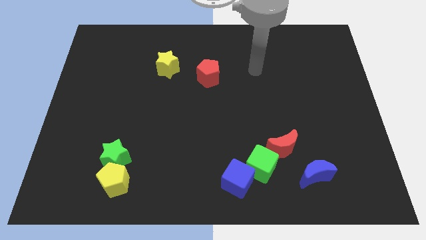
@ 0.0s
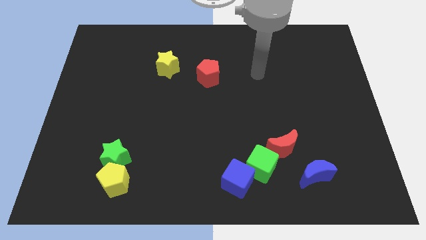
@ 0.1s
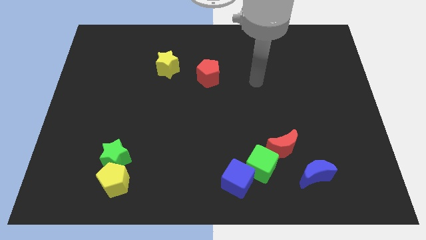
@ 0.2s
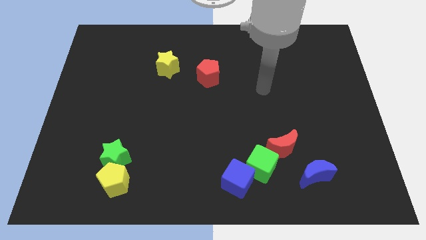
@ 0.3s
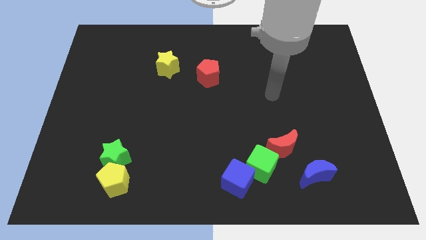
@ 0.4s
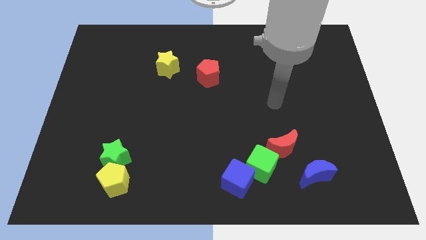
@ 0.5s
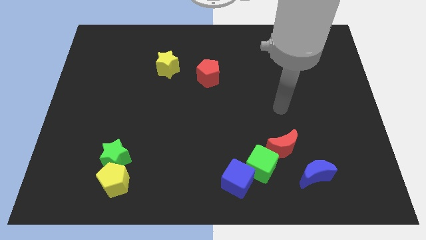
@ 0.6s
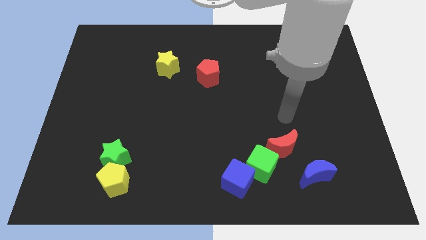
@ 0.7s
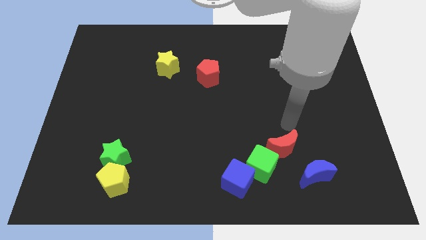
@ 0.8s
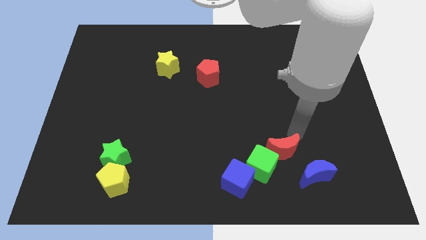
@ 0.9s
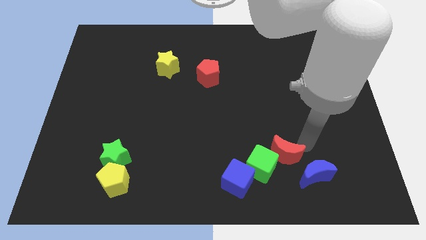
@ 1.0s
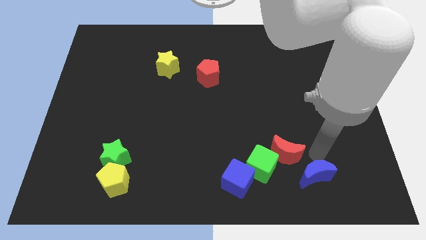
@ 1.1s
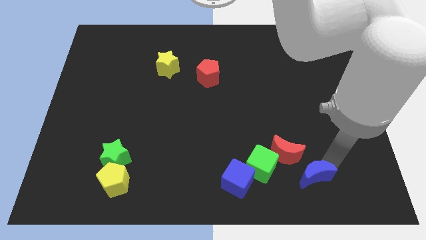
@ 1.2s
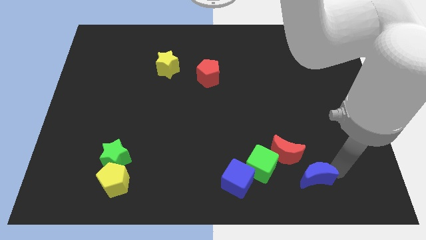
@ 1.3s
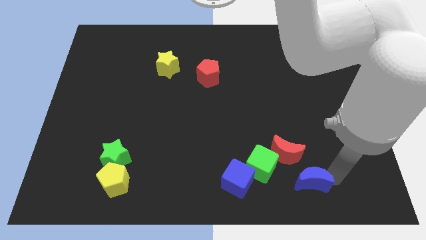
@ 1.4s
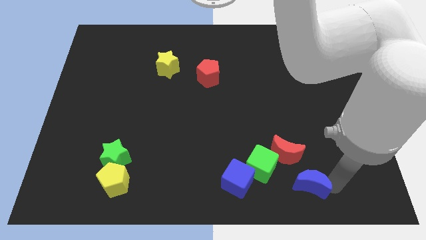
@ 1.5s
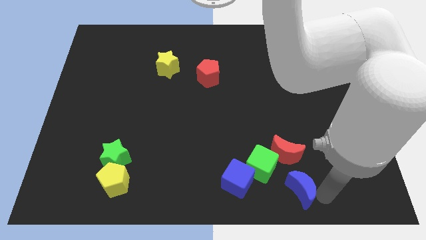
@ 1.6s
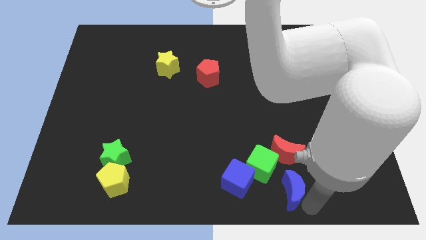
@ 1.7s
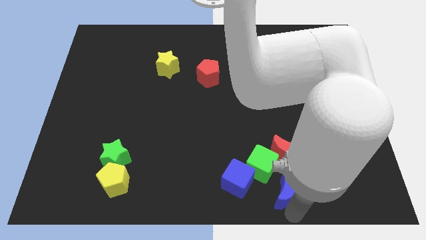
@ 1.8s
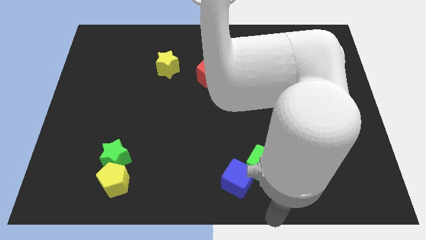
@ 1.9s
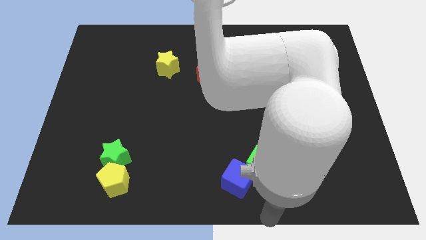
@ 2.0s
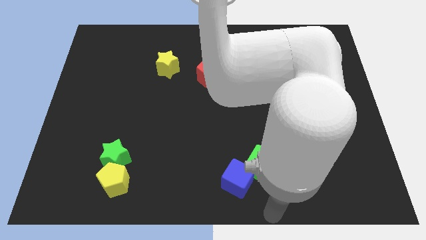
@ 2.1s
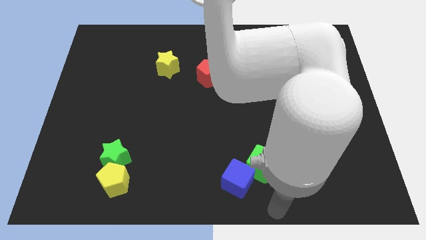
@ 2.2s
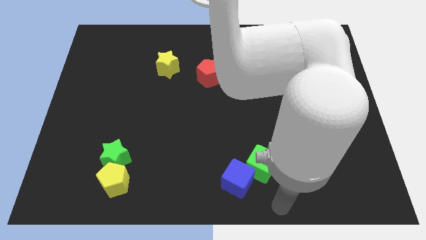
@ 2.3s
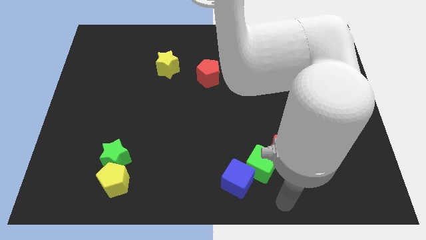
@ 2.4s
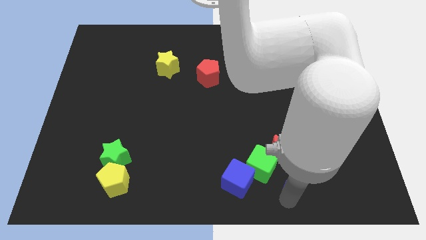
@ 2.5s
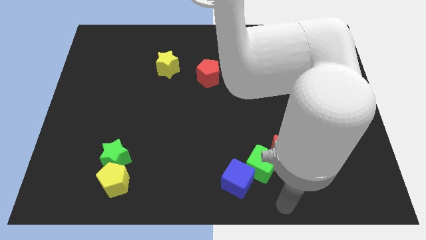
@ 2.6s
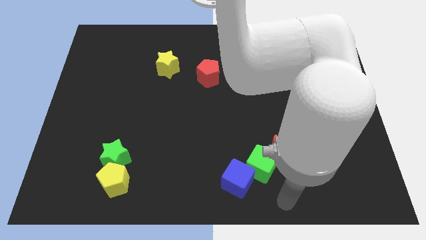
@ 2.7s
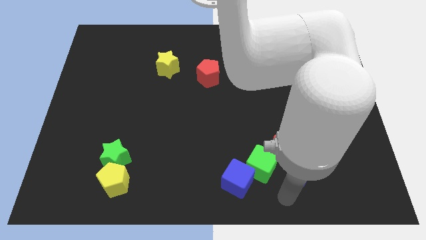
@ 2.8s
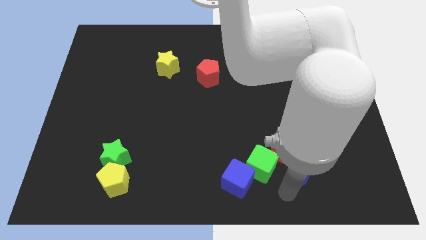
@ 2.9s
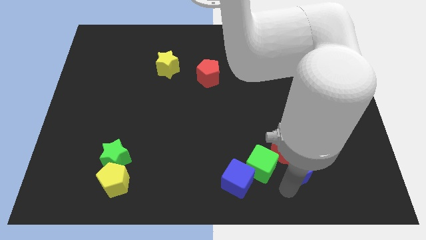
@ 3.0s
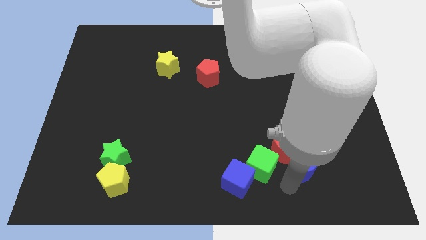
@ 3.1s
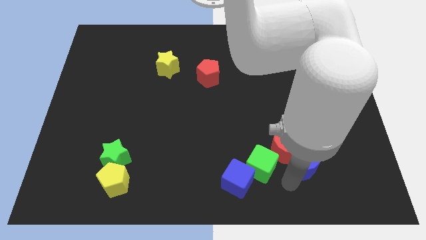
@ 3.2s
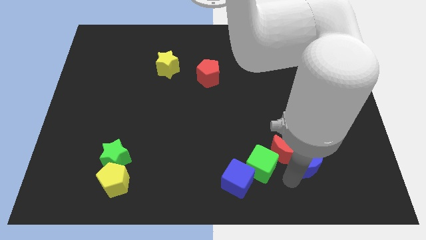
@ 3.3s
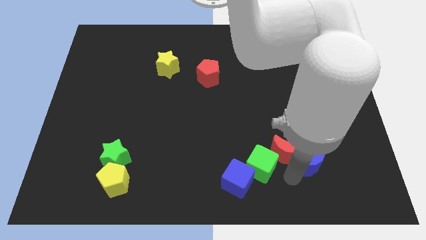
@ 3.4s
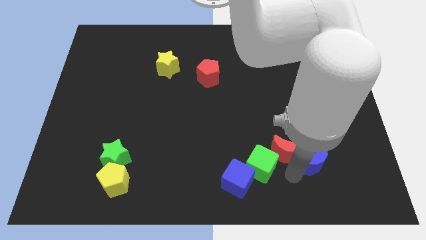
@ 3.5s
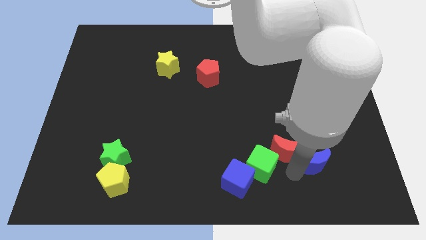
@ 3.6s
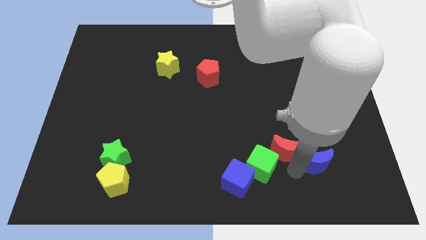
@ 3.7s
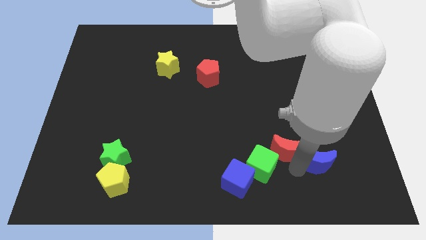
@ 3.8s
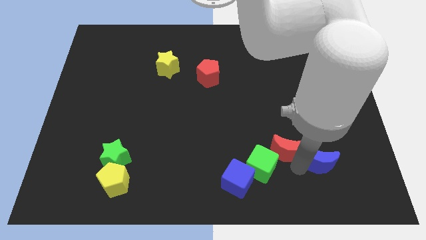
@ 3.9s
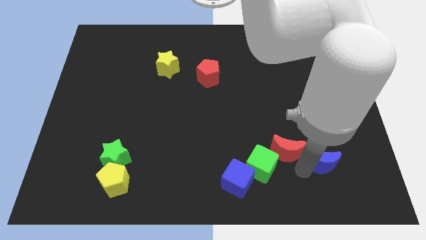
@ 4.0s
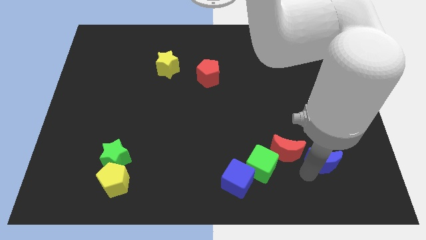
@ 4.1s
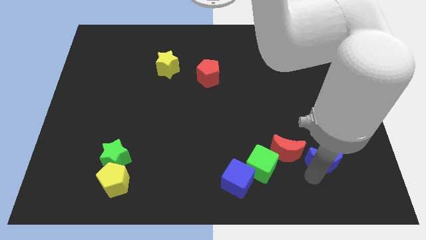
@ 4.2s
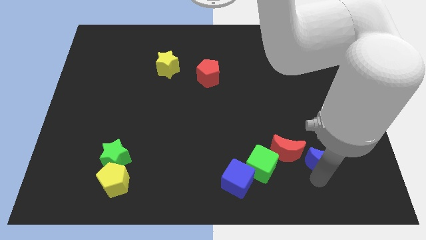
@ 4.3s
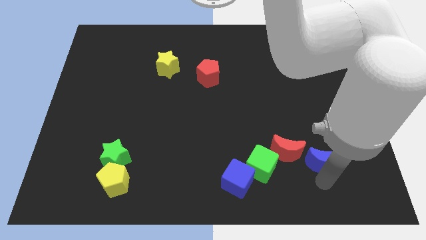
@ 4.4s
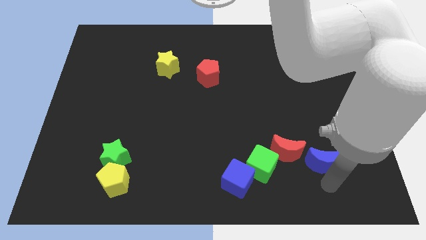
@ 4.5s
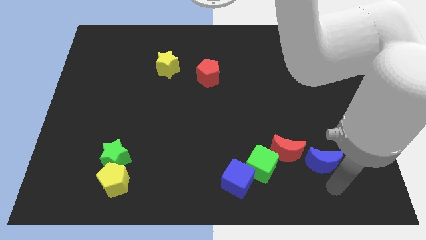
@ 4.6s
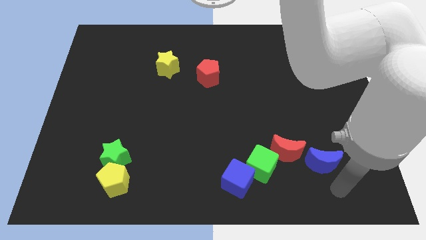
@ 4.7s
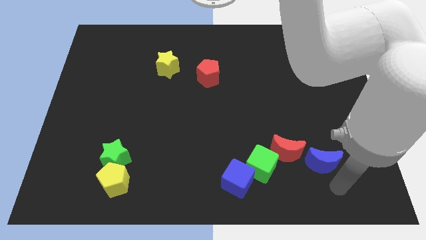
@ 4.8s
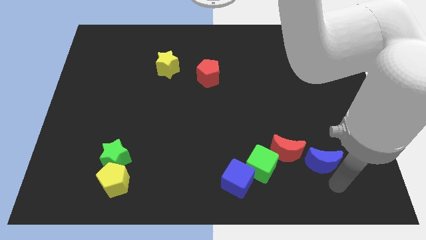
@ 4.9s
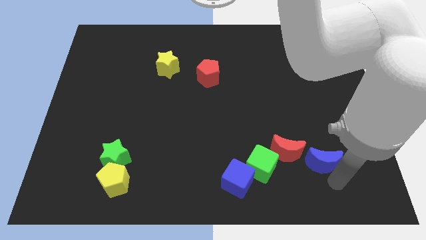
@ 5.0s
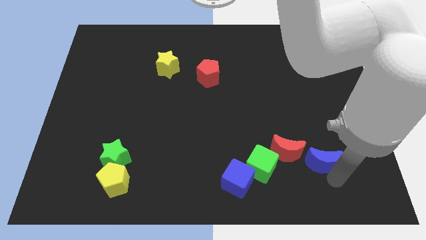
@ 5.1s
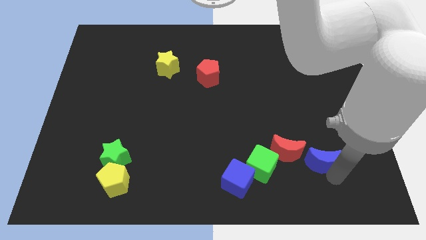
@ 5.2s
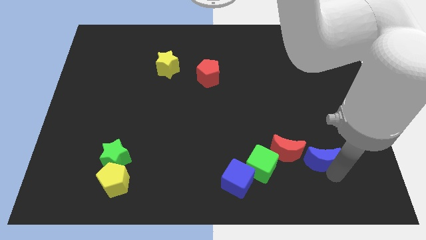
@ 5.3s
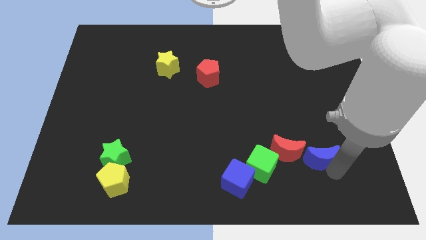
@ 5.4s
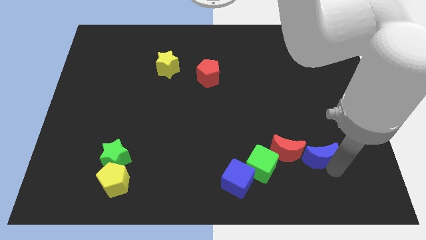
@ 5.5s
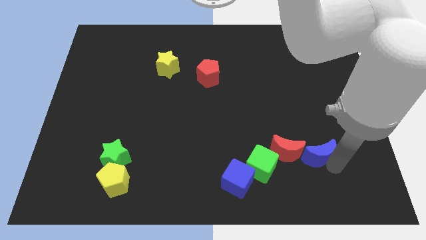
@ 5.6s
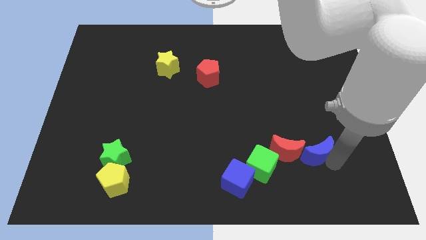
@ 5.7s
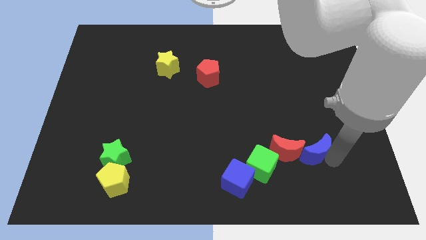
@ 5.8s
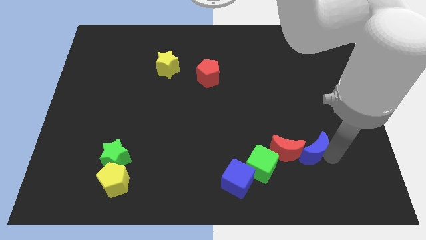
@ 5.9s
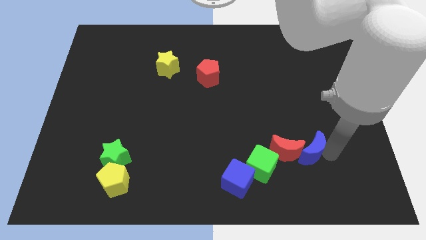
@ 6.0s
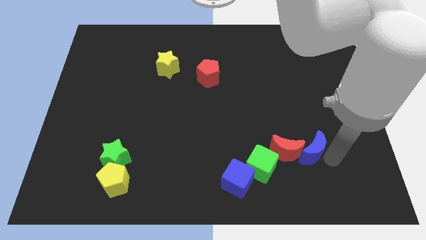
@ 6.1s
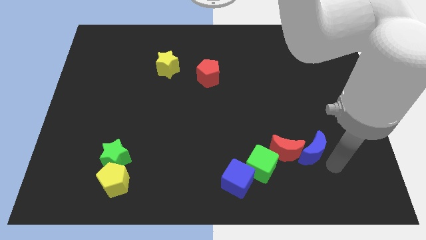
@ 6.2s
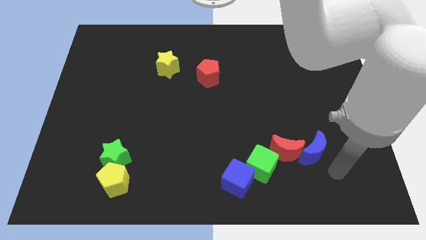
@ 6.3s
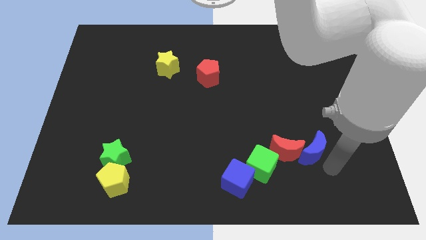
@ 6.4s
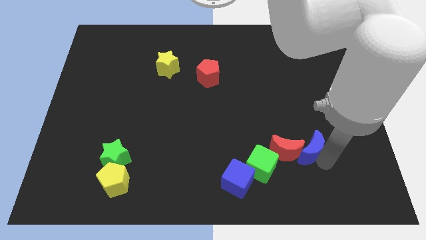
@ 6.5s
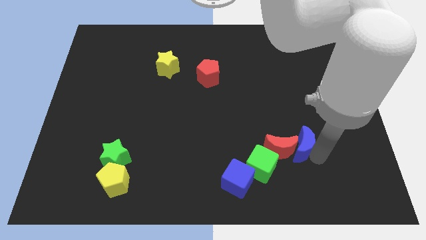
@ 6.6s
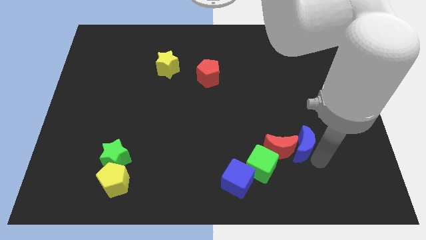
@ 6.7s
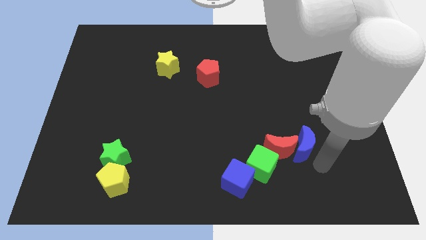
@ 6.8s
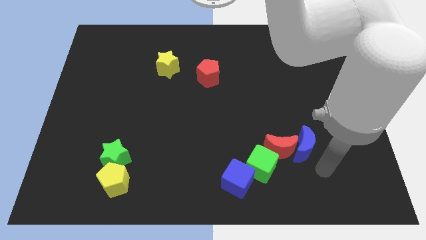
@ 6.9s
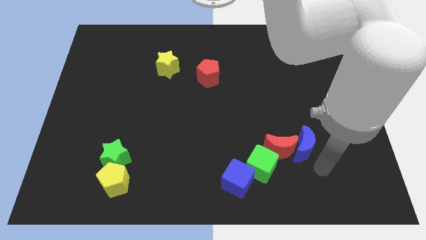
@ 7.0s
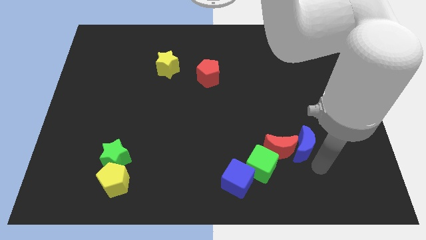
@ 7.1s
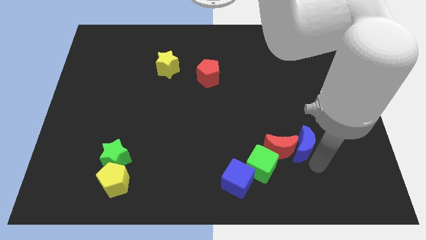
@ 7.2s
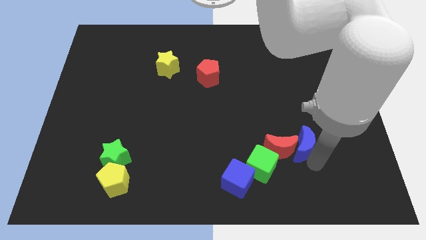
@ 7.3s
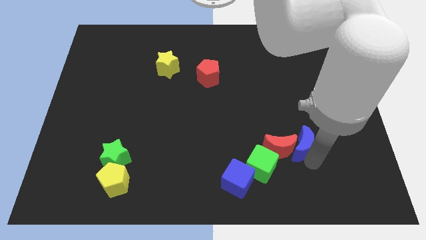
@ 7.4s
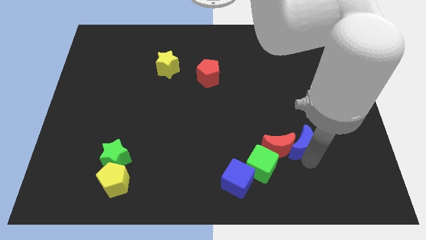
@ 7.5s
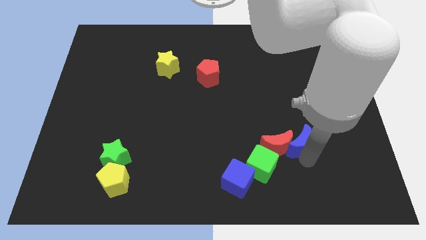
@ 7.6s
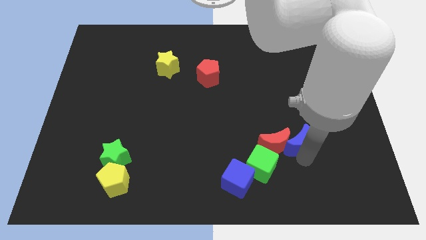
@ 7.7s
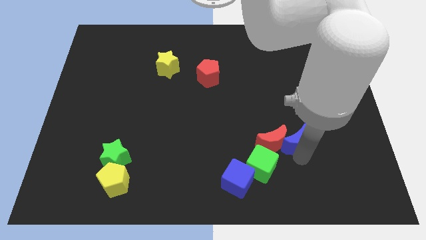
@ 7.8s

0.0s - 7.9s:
slightly move the blue moon diagonally upwards and left
